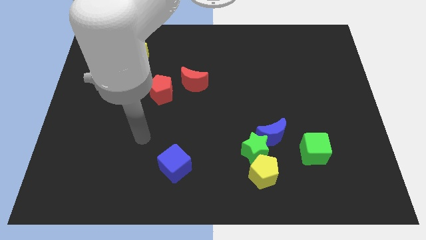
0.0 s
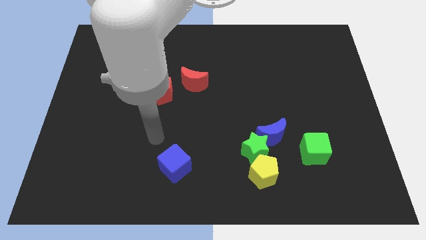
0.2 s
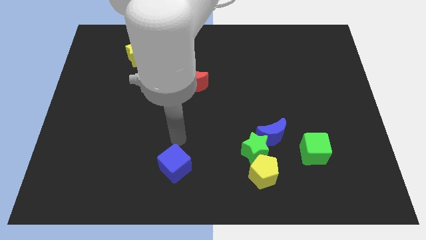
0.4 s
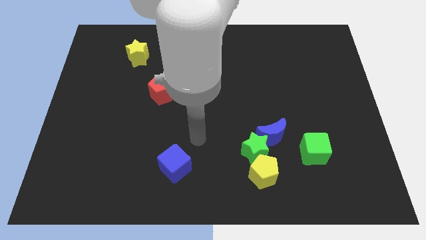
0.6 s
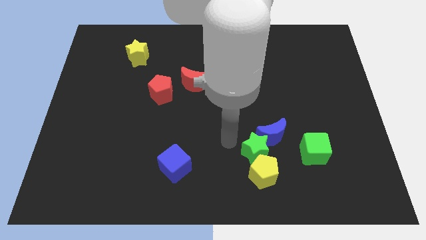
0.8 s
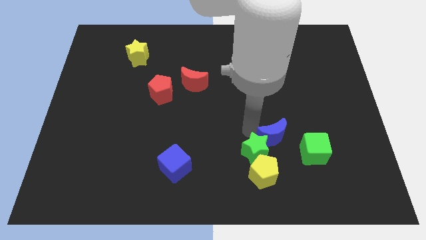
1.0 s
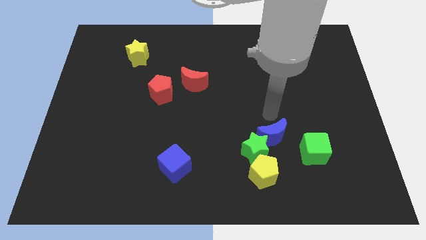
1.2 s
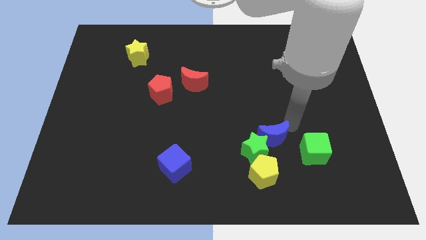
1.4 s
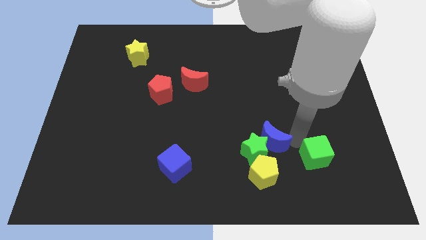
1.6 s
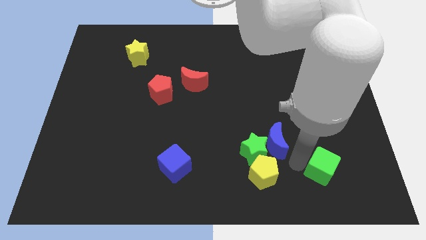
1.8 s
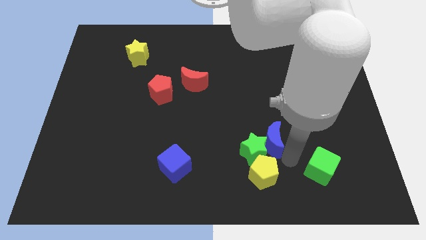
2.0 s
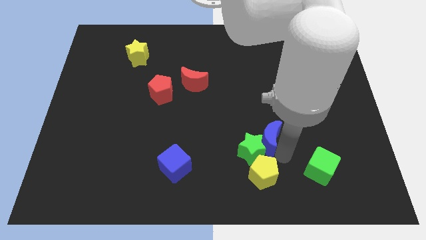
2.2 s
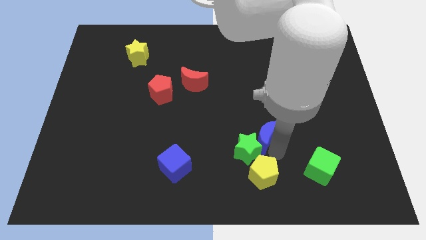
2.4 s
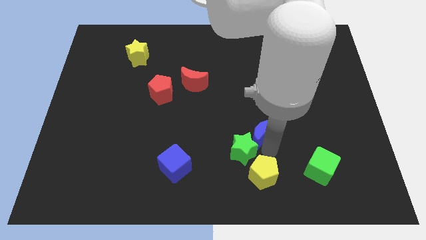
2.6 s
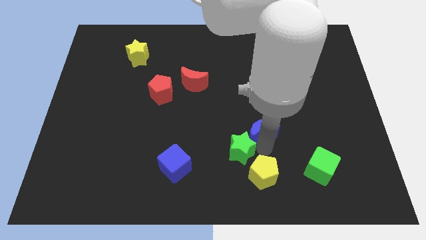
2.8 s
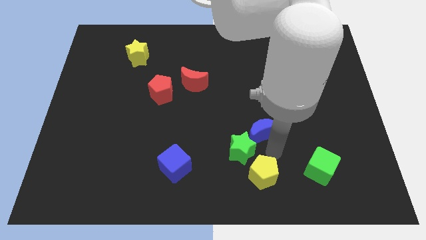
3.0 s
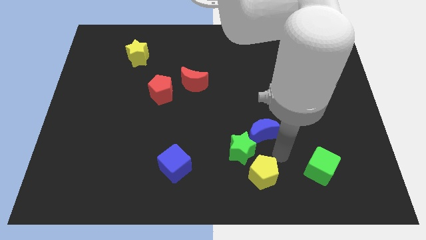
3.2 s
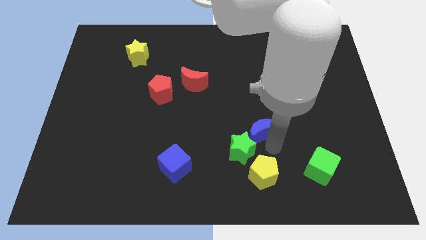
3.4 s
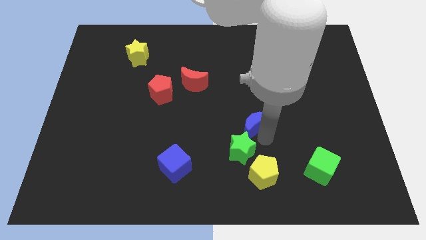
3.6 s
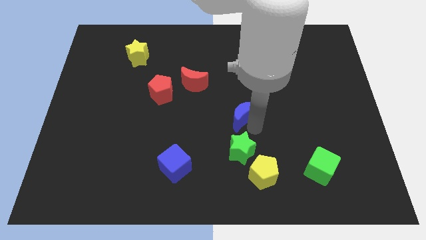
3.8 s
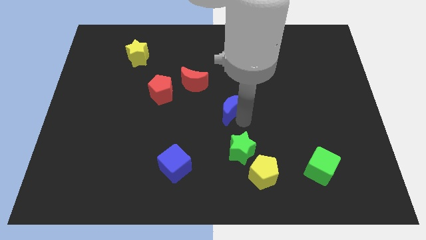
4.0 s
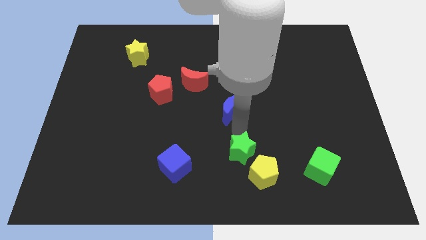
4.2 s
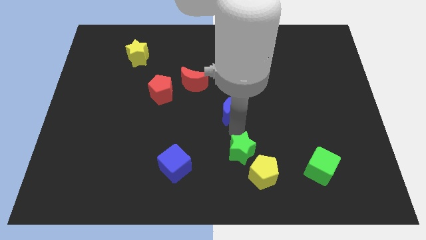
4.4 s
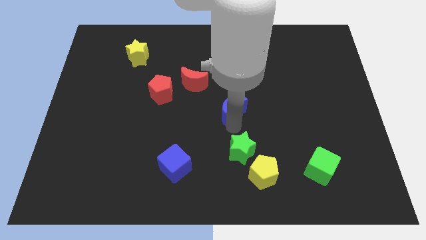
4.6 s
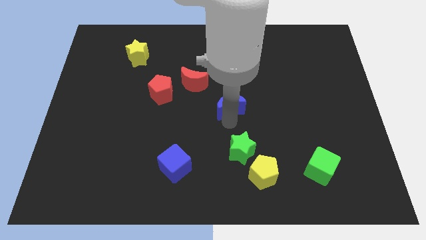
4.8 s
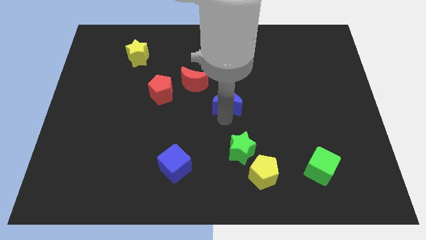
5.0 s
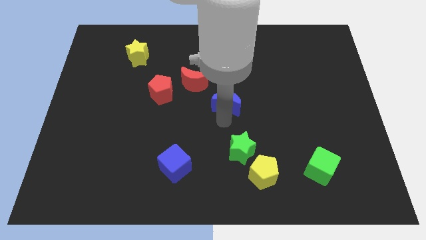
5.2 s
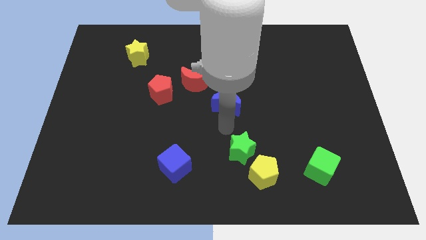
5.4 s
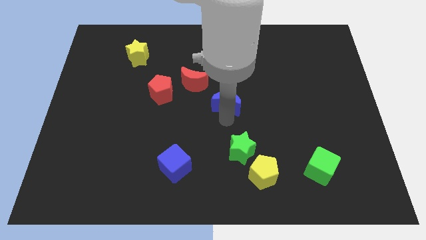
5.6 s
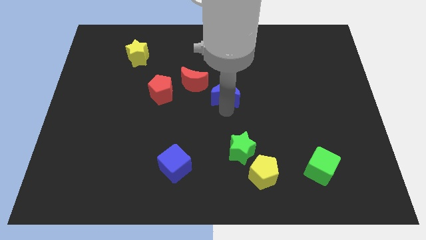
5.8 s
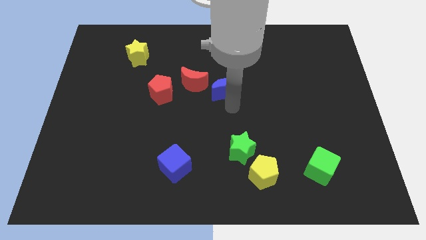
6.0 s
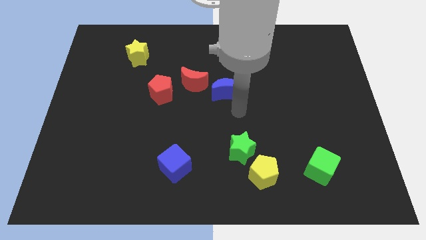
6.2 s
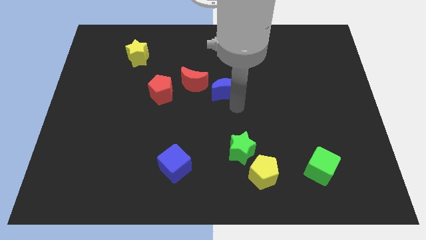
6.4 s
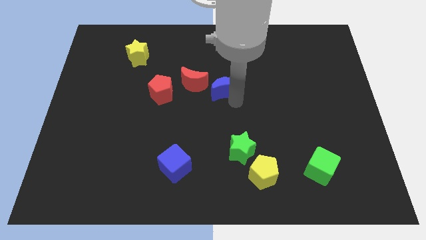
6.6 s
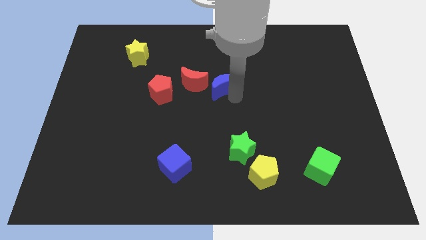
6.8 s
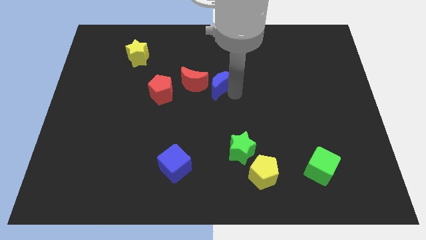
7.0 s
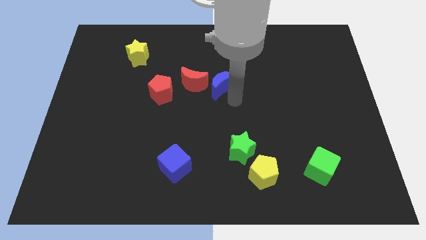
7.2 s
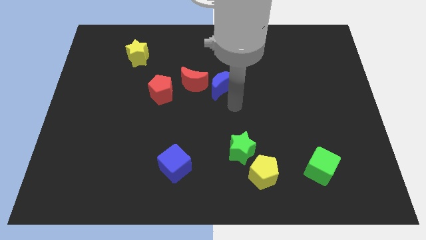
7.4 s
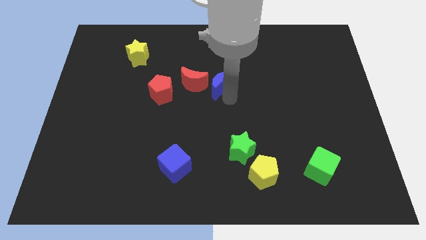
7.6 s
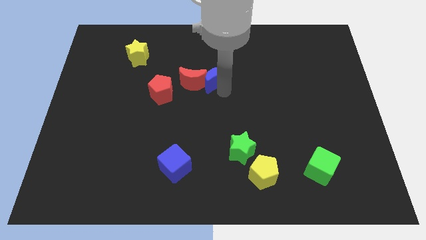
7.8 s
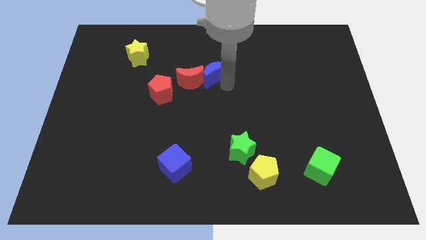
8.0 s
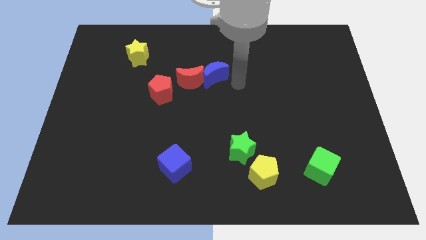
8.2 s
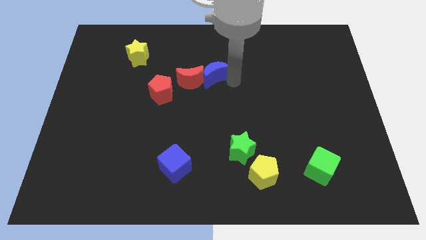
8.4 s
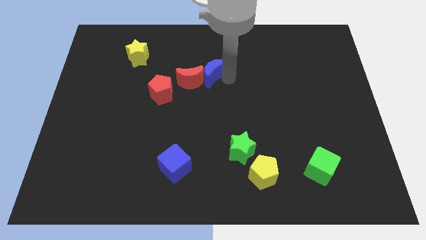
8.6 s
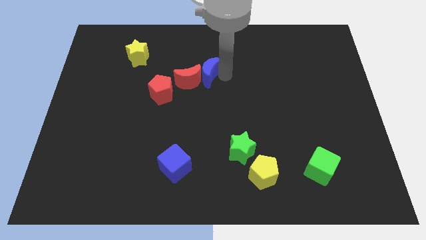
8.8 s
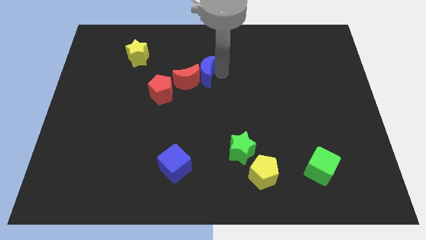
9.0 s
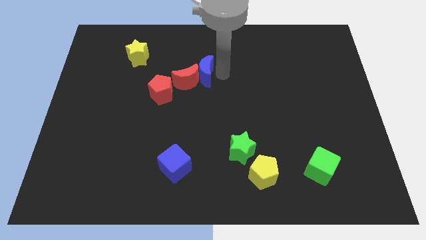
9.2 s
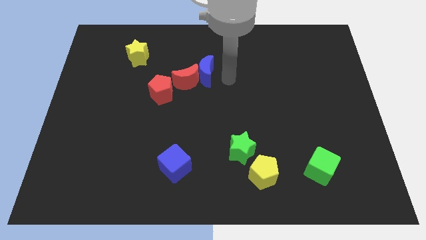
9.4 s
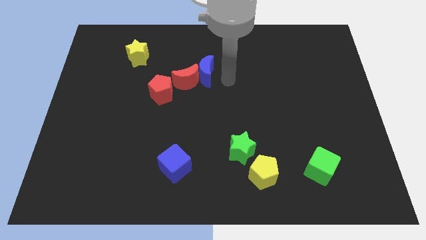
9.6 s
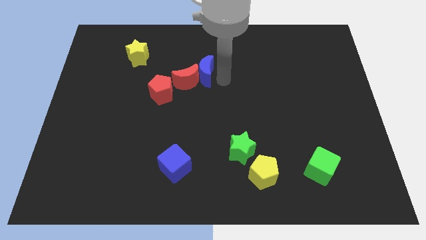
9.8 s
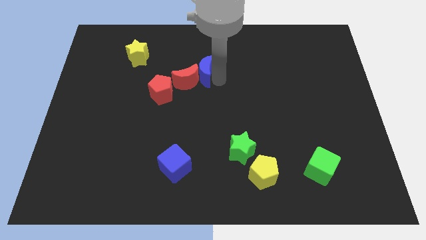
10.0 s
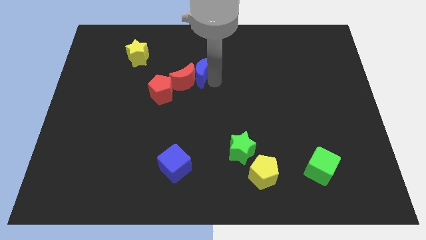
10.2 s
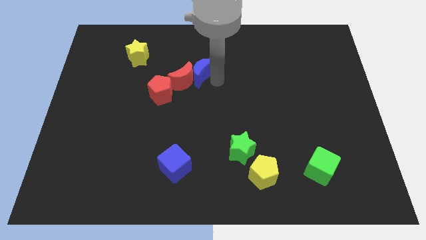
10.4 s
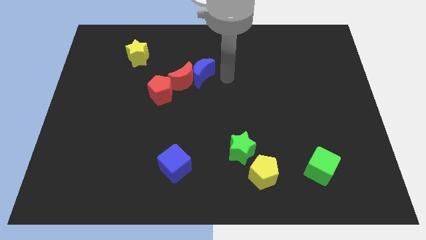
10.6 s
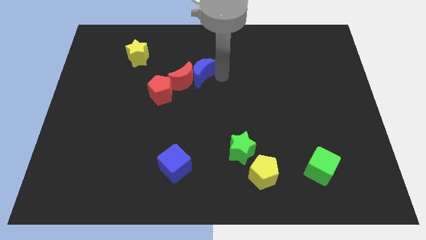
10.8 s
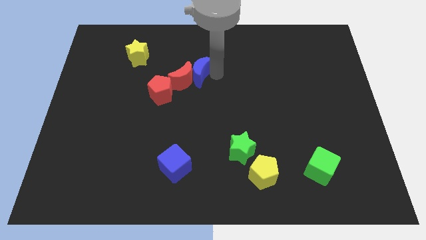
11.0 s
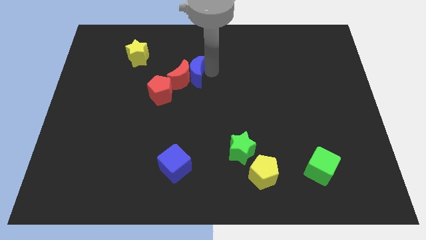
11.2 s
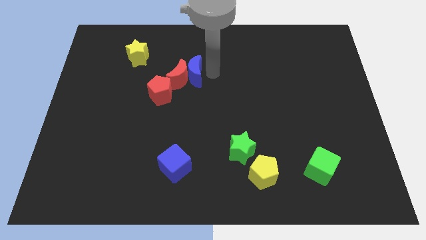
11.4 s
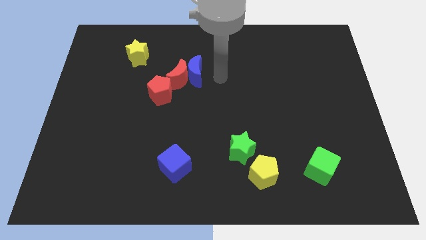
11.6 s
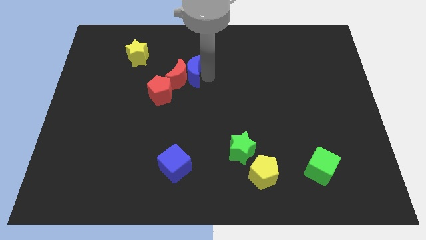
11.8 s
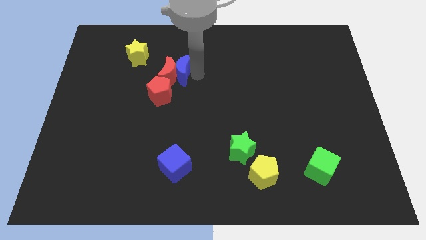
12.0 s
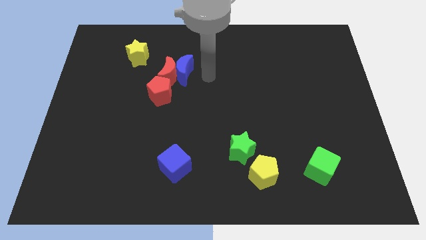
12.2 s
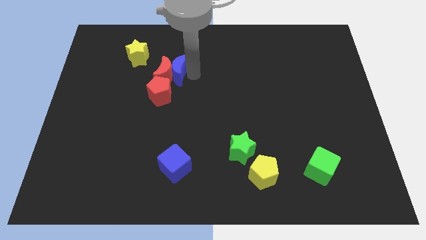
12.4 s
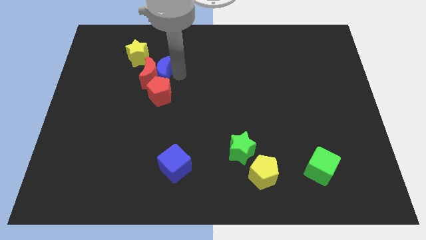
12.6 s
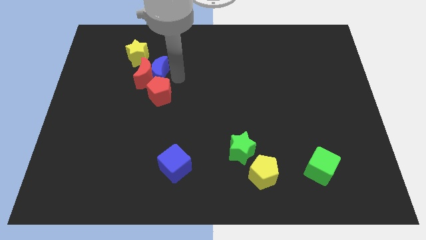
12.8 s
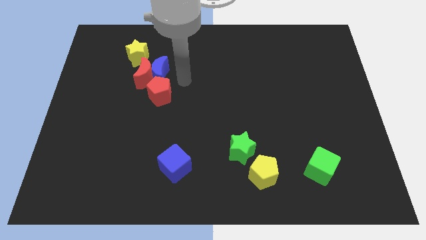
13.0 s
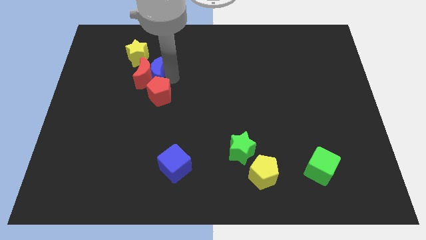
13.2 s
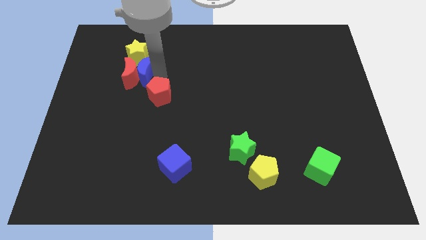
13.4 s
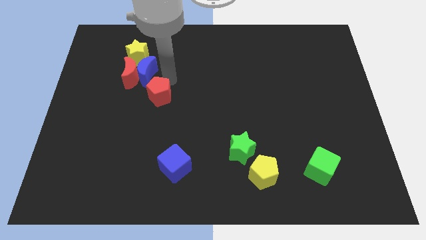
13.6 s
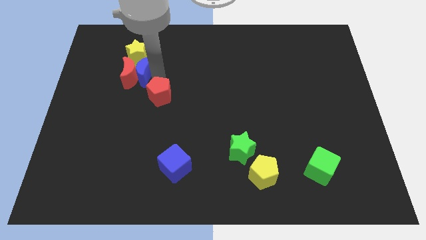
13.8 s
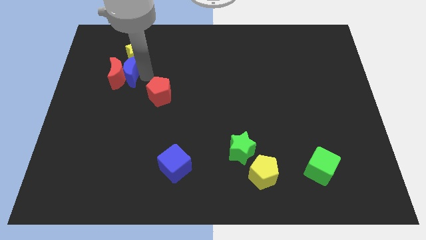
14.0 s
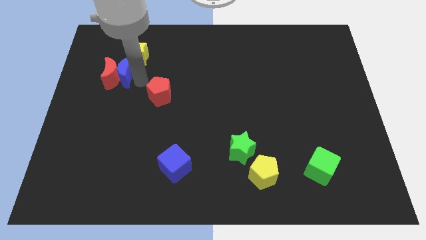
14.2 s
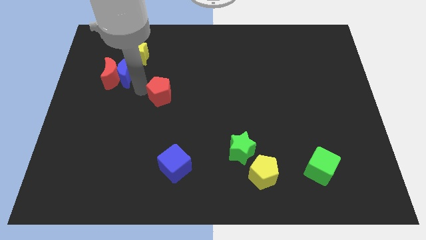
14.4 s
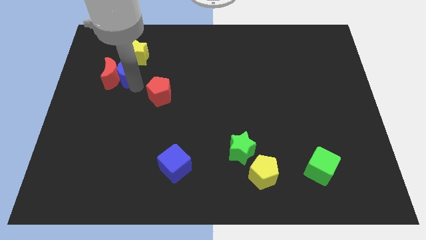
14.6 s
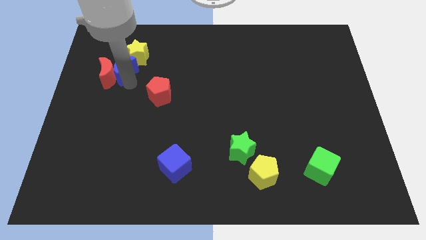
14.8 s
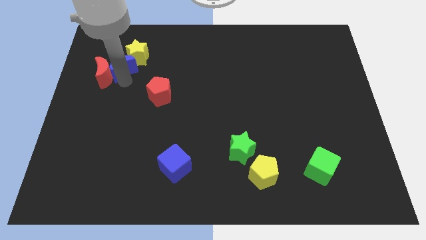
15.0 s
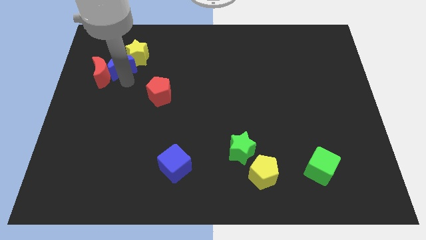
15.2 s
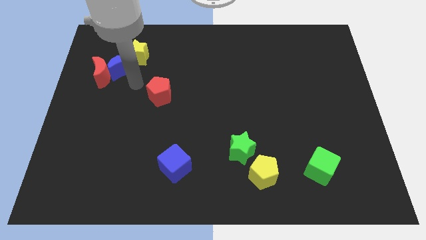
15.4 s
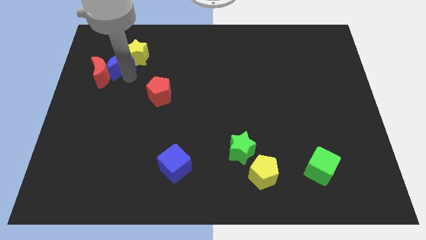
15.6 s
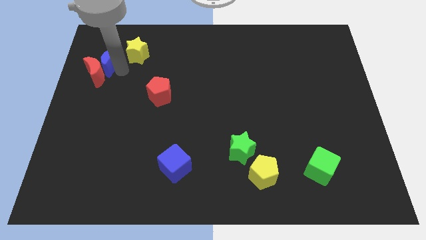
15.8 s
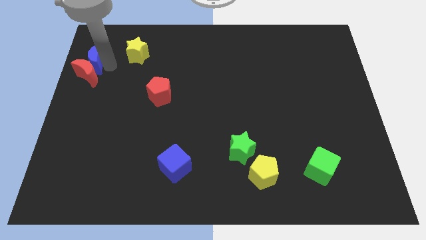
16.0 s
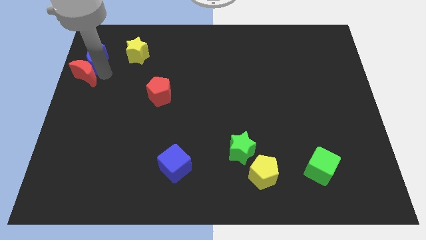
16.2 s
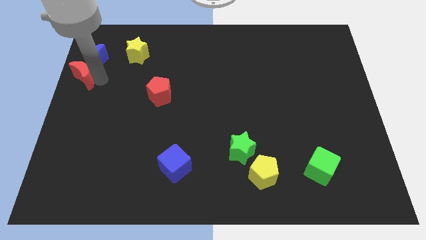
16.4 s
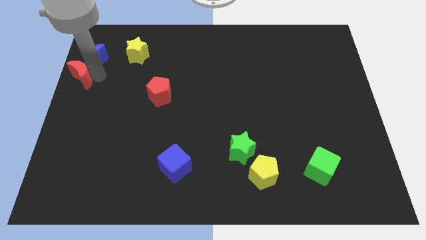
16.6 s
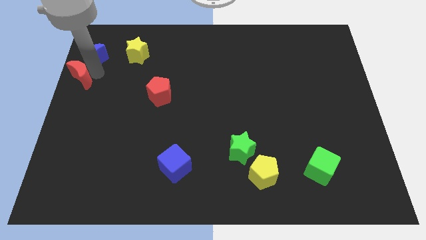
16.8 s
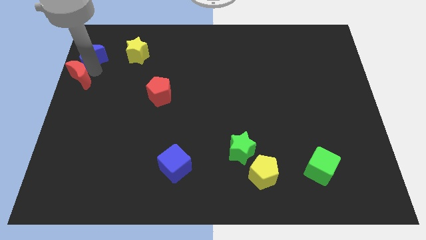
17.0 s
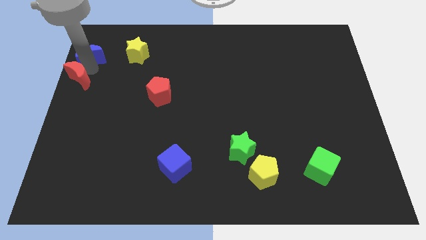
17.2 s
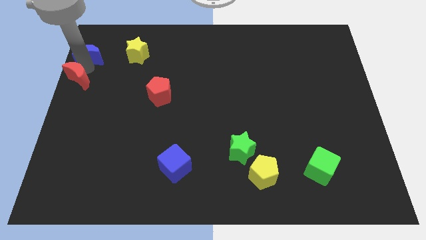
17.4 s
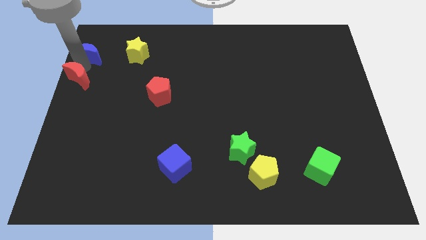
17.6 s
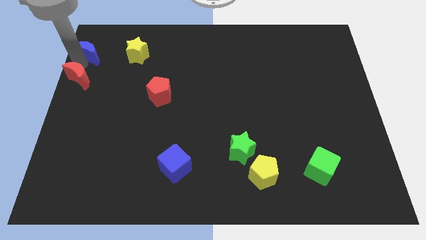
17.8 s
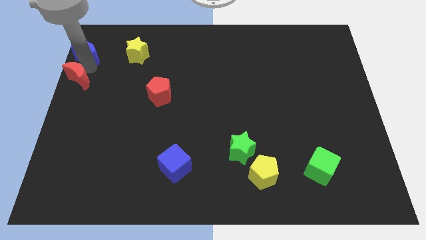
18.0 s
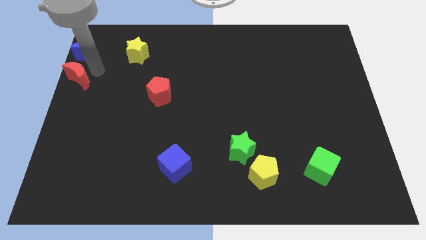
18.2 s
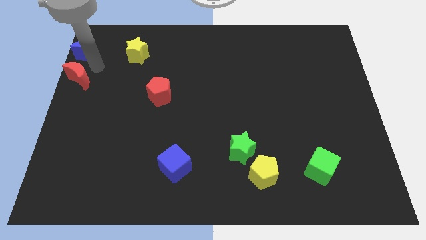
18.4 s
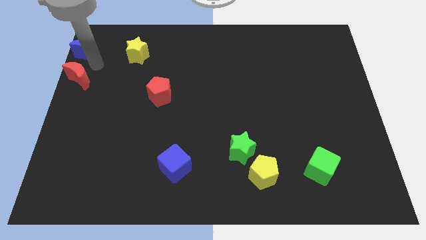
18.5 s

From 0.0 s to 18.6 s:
push the blue moon to the upper left corner
